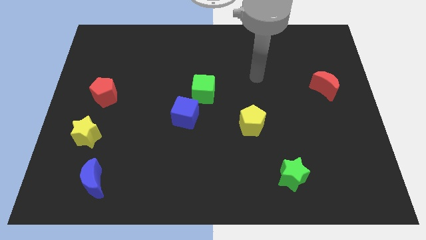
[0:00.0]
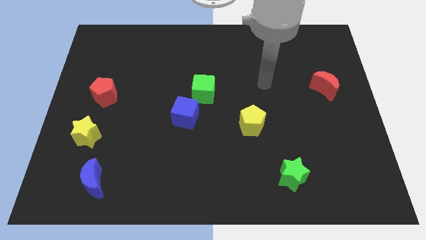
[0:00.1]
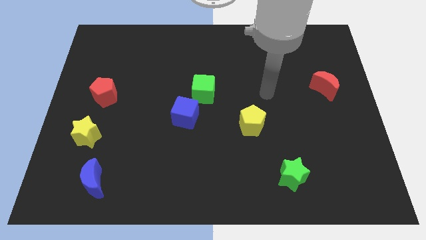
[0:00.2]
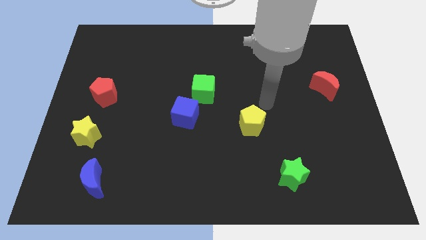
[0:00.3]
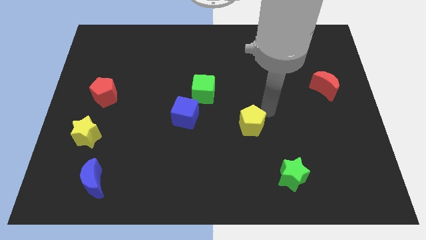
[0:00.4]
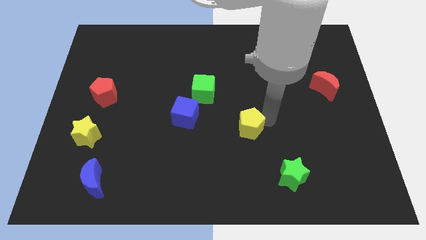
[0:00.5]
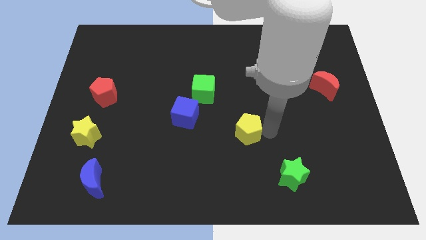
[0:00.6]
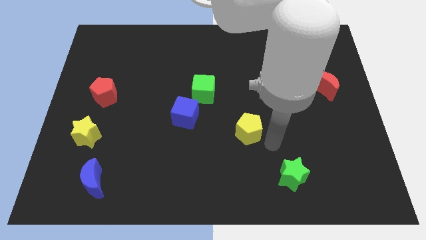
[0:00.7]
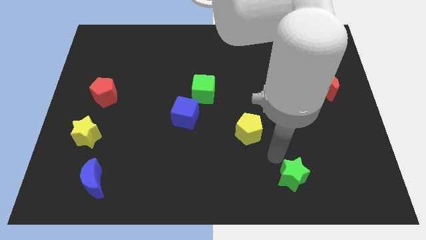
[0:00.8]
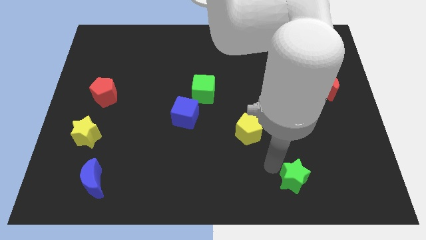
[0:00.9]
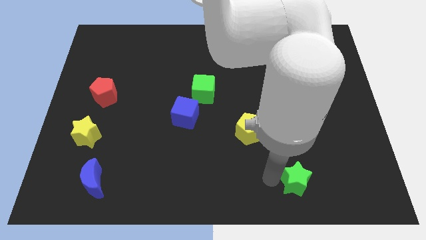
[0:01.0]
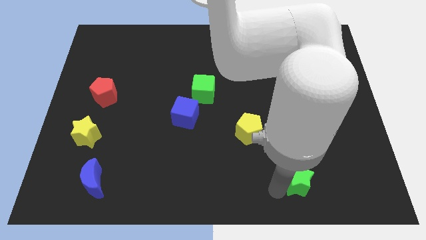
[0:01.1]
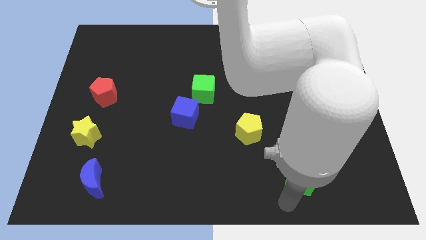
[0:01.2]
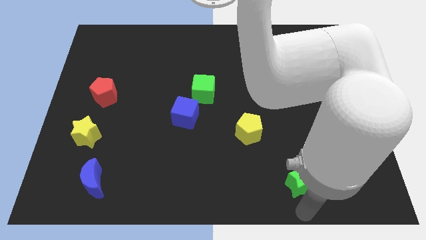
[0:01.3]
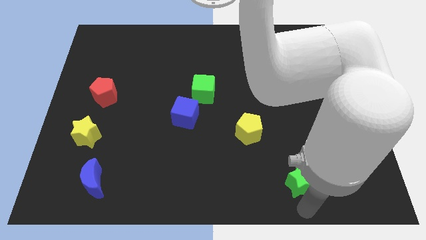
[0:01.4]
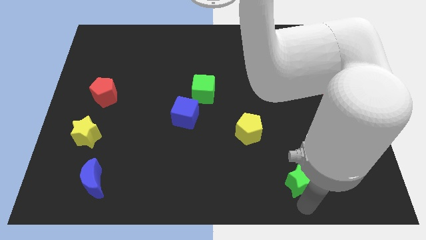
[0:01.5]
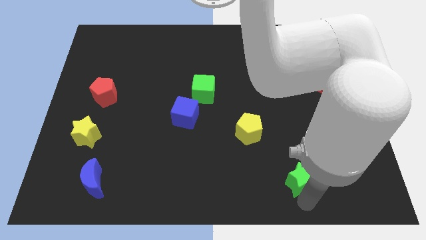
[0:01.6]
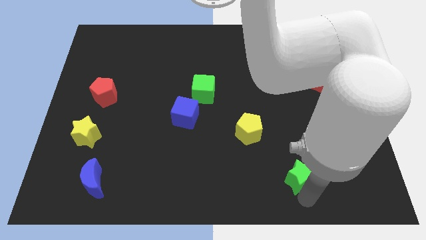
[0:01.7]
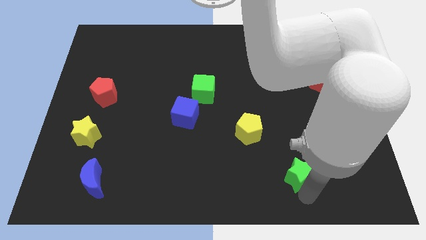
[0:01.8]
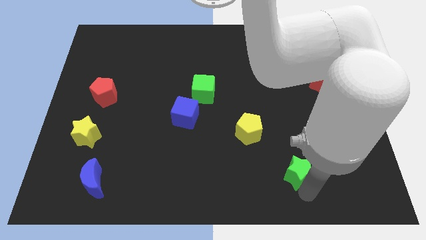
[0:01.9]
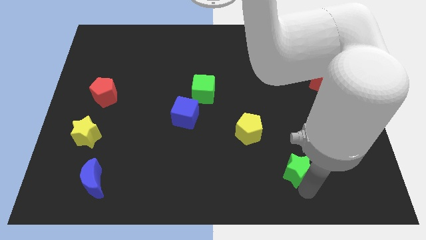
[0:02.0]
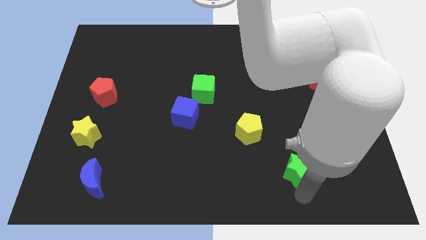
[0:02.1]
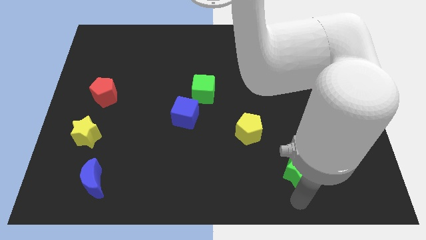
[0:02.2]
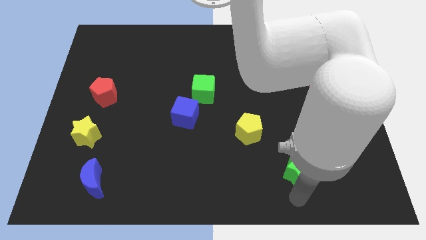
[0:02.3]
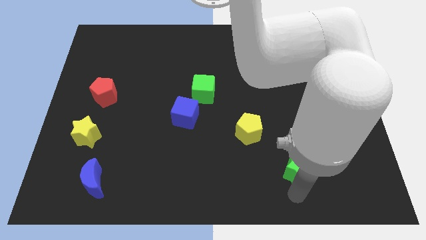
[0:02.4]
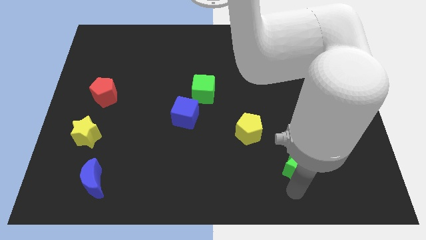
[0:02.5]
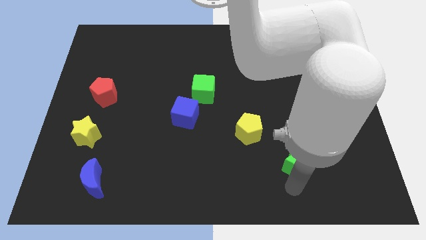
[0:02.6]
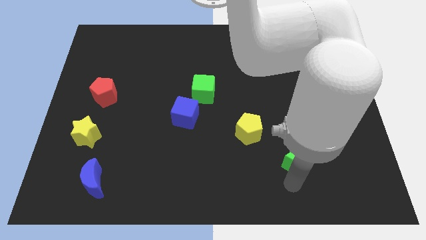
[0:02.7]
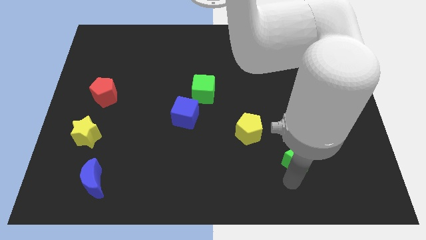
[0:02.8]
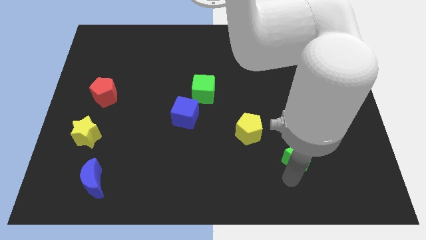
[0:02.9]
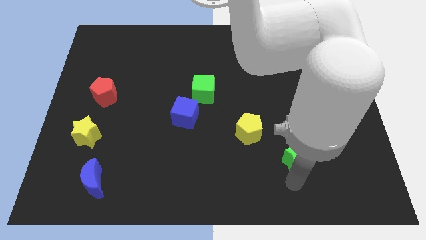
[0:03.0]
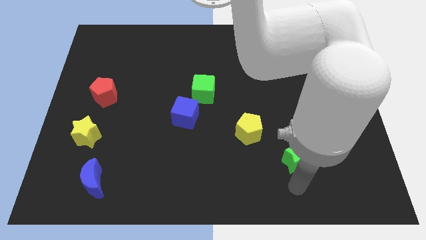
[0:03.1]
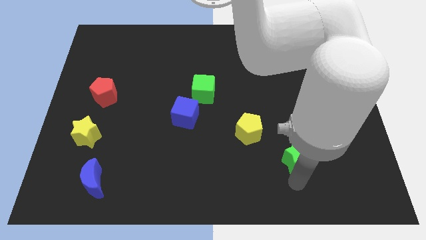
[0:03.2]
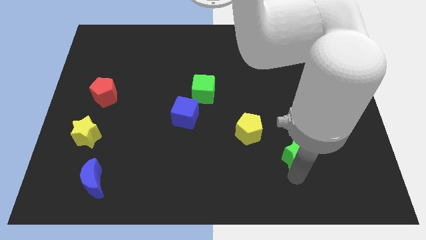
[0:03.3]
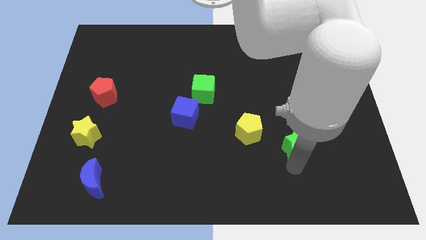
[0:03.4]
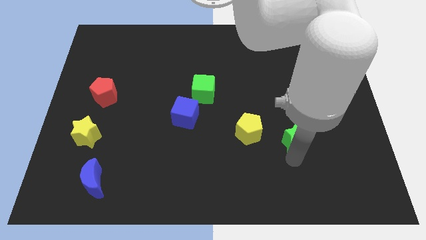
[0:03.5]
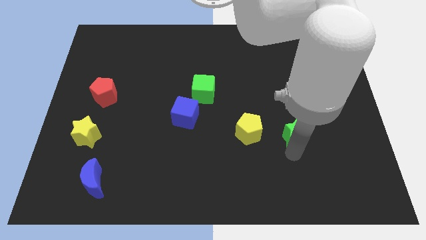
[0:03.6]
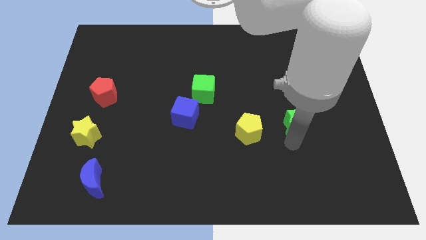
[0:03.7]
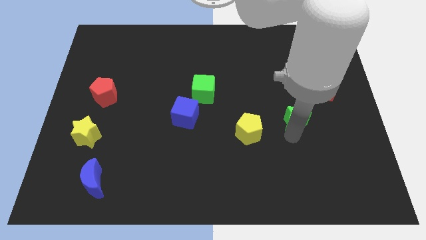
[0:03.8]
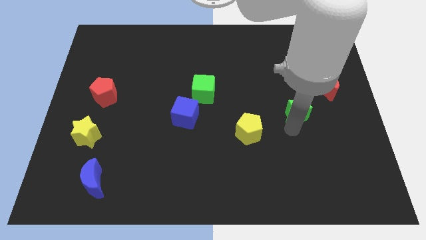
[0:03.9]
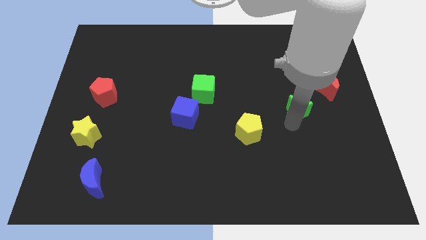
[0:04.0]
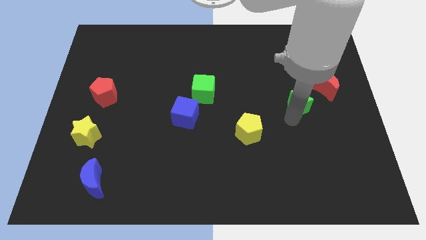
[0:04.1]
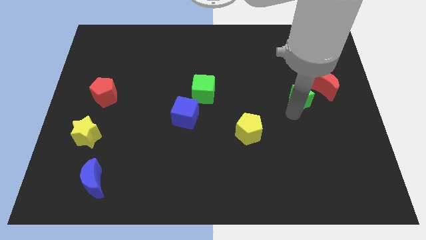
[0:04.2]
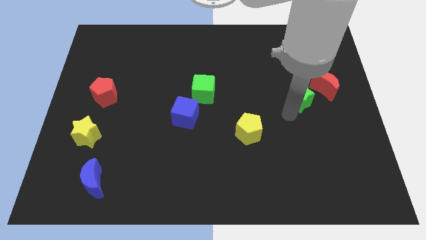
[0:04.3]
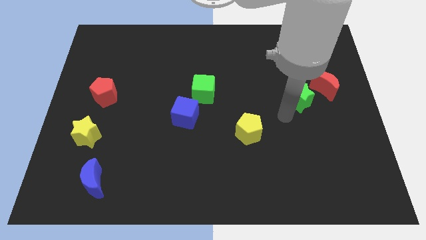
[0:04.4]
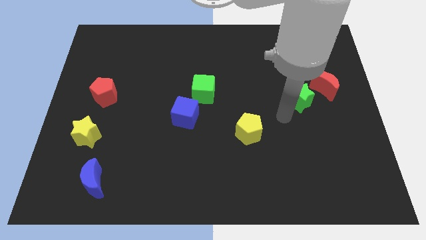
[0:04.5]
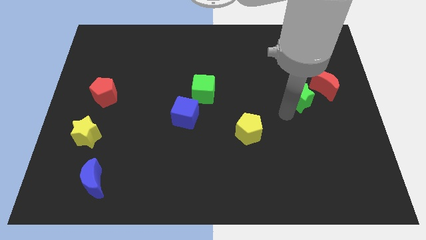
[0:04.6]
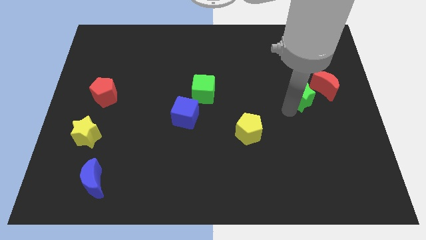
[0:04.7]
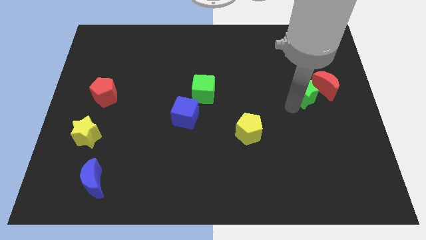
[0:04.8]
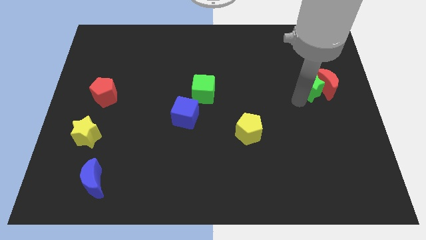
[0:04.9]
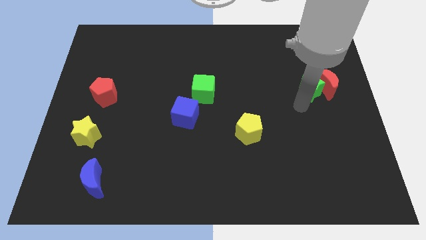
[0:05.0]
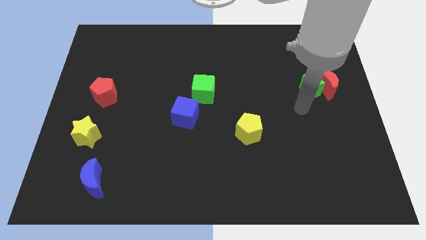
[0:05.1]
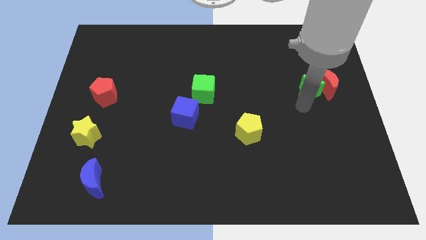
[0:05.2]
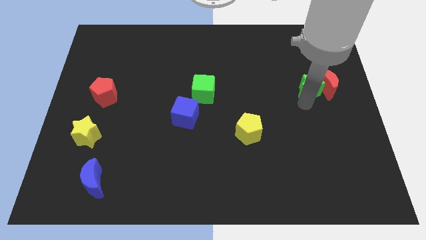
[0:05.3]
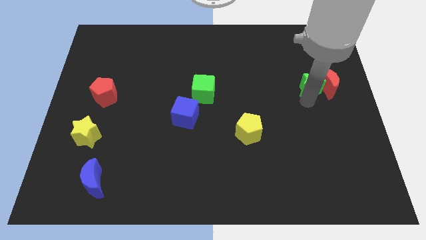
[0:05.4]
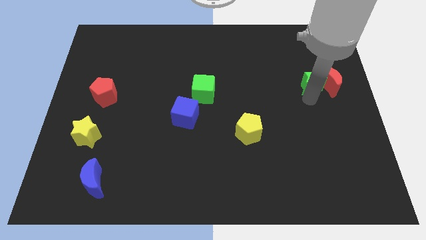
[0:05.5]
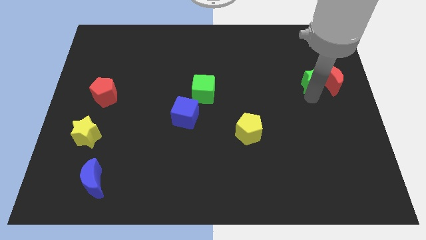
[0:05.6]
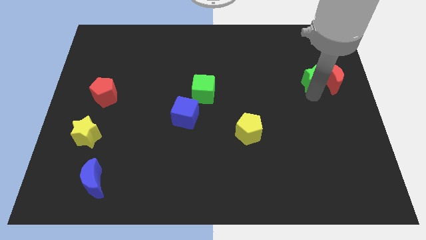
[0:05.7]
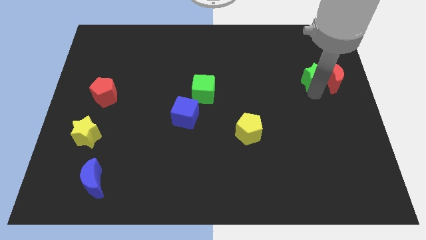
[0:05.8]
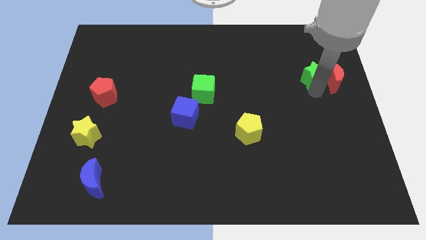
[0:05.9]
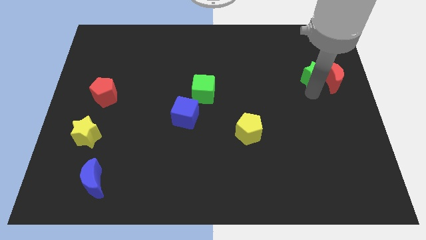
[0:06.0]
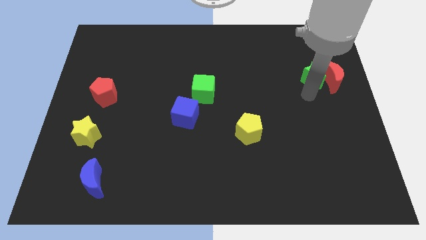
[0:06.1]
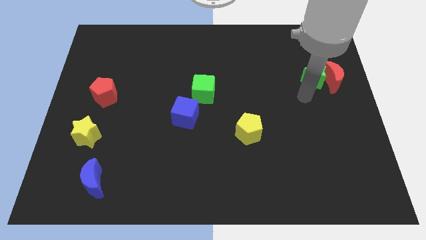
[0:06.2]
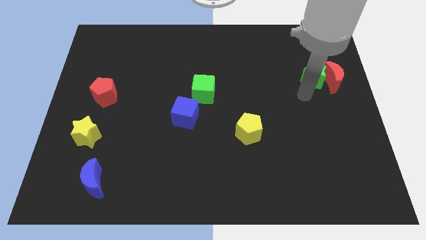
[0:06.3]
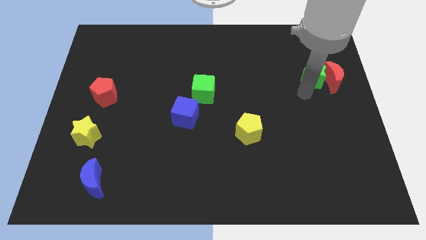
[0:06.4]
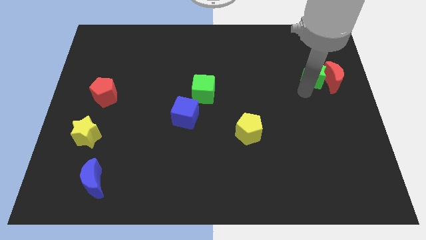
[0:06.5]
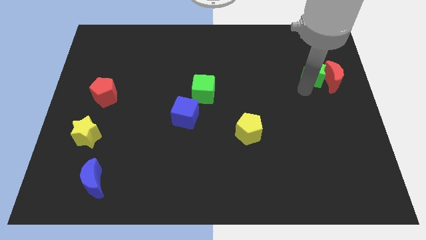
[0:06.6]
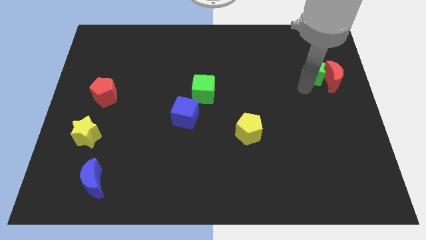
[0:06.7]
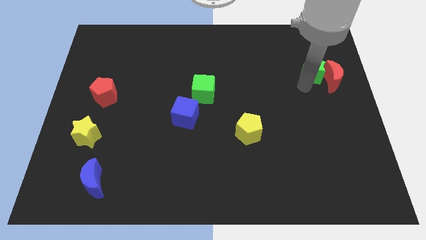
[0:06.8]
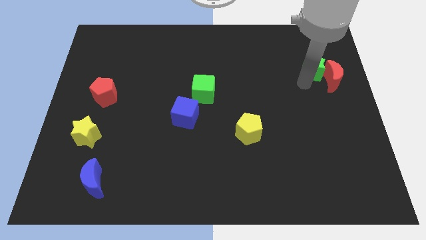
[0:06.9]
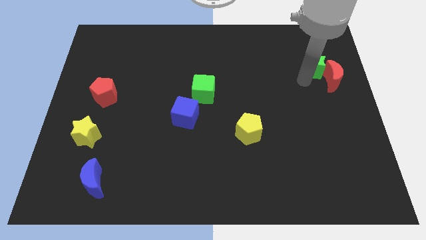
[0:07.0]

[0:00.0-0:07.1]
move the green star to the top of the red moon
